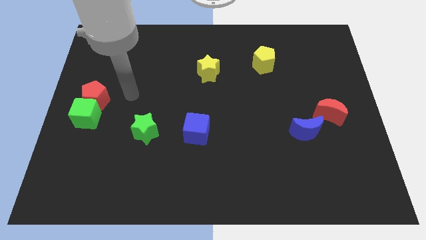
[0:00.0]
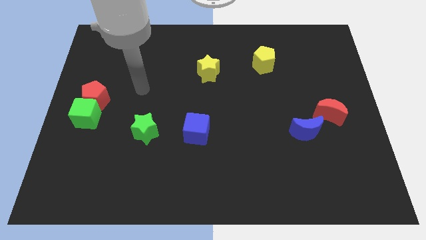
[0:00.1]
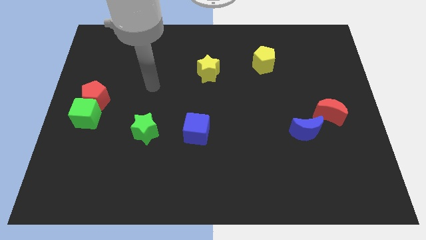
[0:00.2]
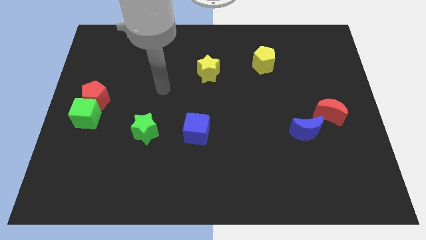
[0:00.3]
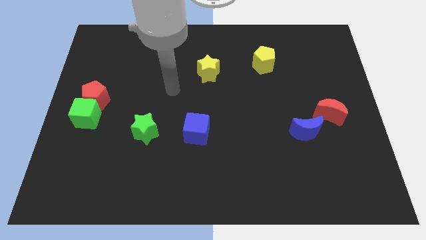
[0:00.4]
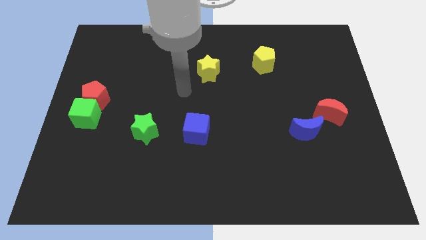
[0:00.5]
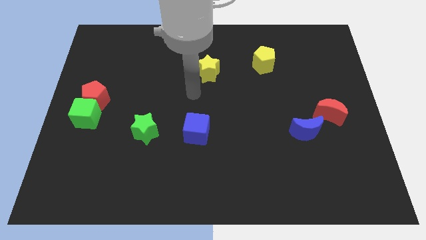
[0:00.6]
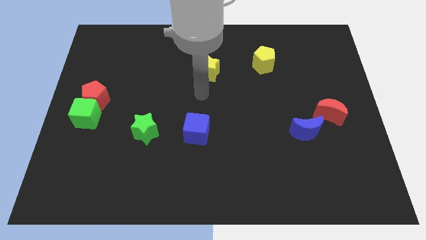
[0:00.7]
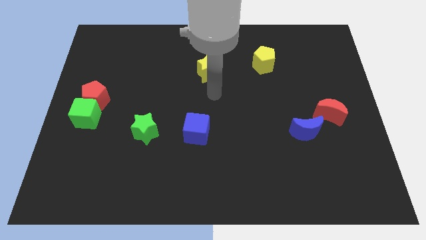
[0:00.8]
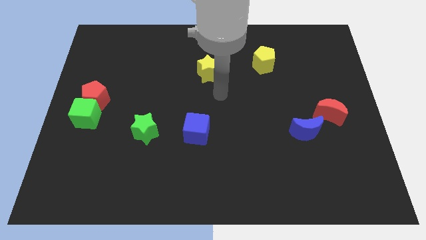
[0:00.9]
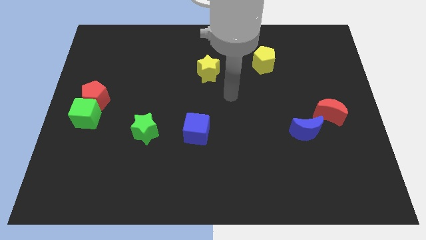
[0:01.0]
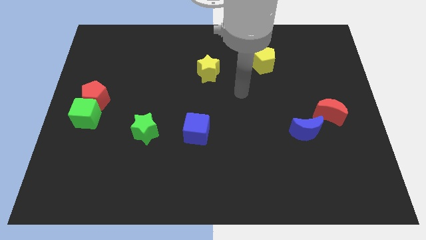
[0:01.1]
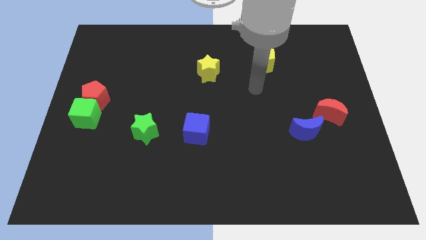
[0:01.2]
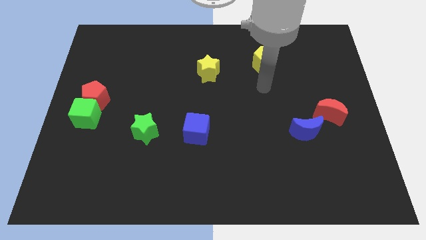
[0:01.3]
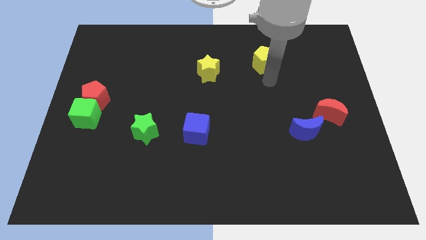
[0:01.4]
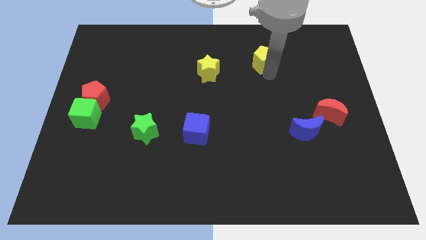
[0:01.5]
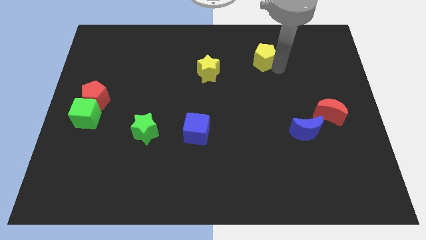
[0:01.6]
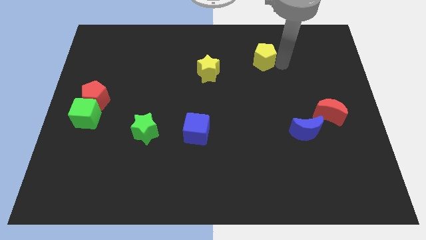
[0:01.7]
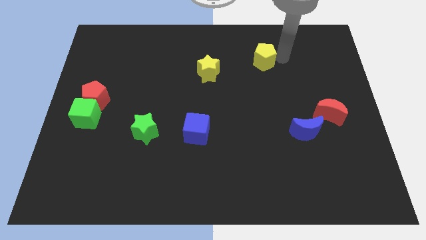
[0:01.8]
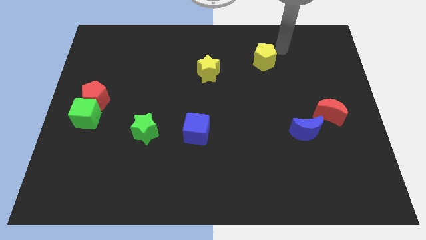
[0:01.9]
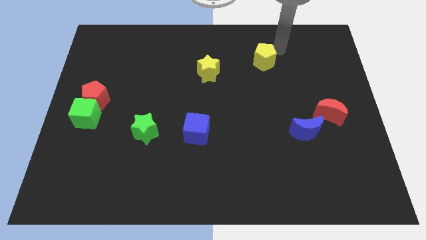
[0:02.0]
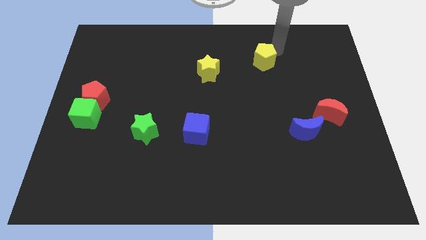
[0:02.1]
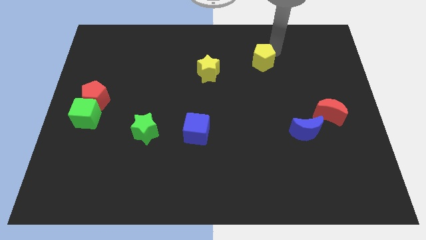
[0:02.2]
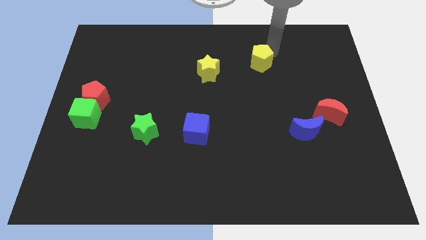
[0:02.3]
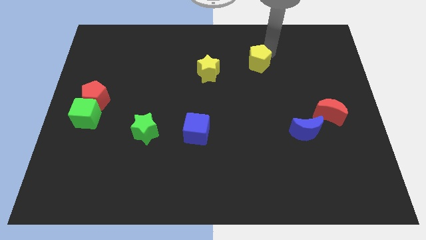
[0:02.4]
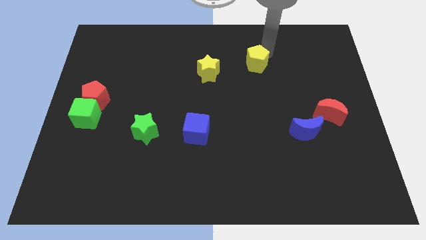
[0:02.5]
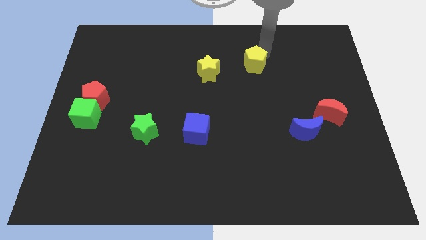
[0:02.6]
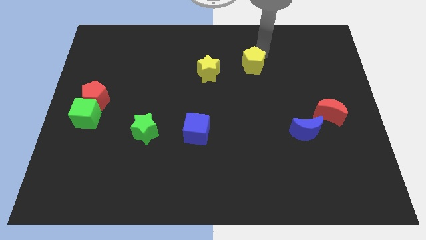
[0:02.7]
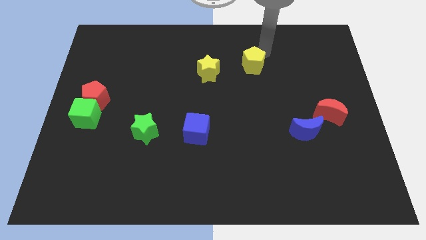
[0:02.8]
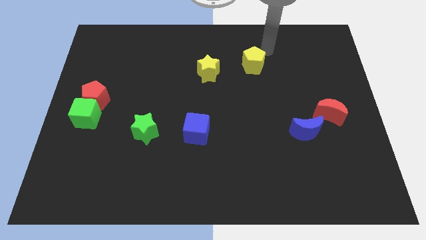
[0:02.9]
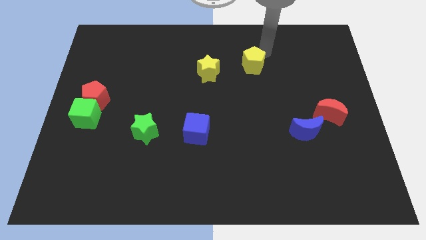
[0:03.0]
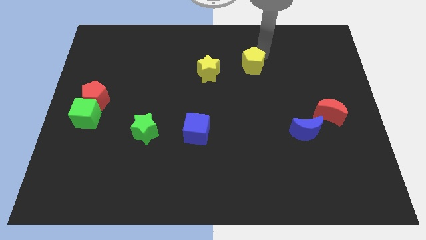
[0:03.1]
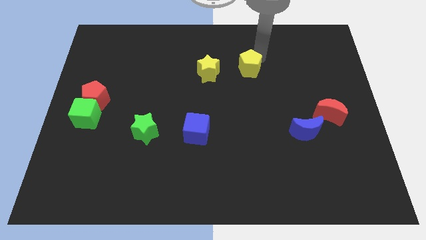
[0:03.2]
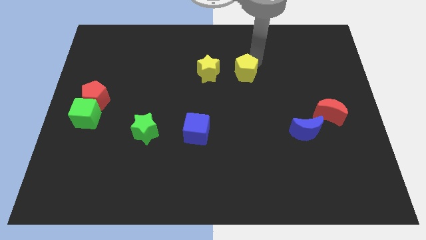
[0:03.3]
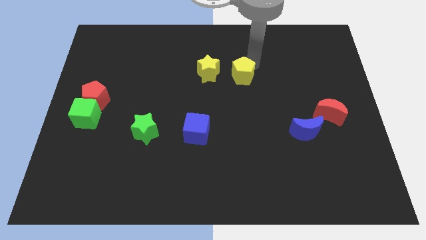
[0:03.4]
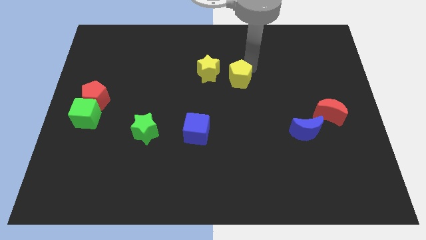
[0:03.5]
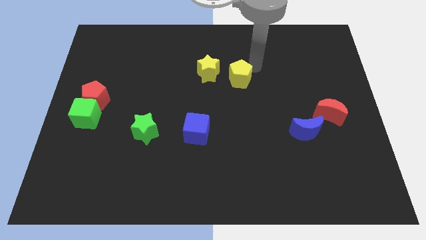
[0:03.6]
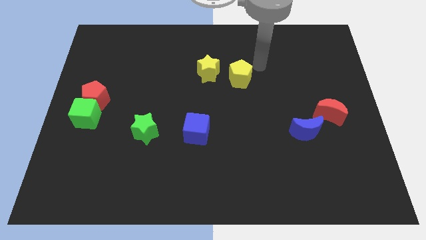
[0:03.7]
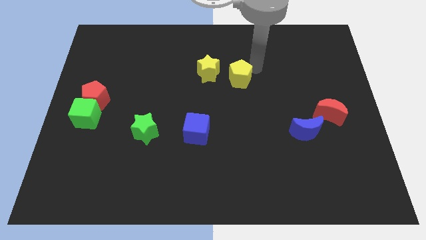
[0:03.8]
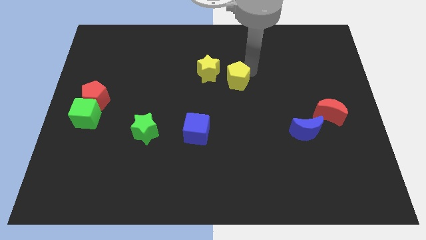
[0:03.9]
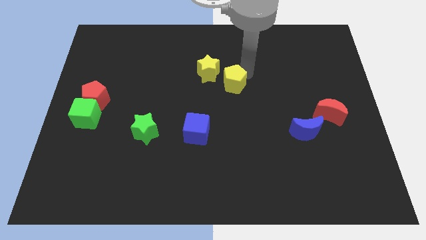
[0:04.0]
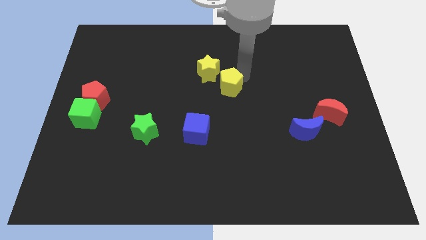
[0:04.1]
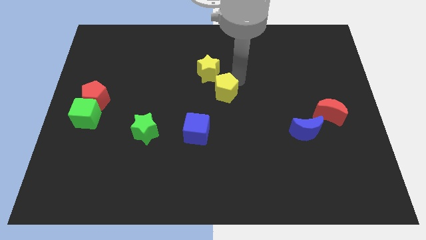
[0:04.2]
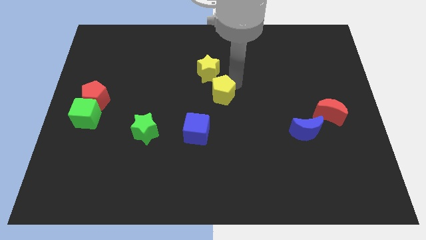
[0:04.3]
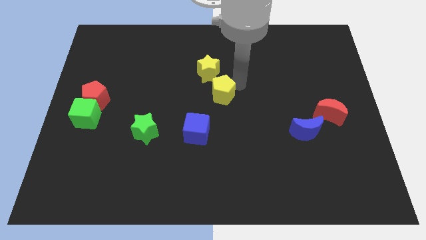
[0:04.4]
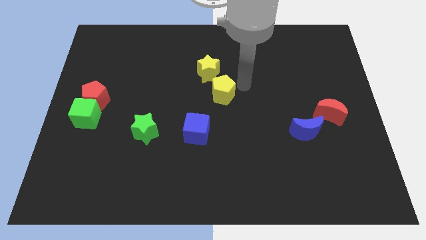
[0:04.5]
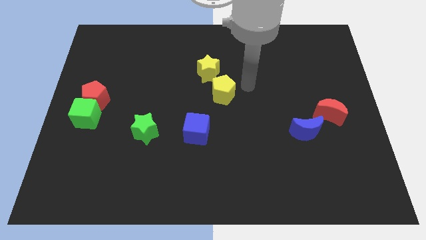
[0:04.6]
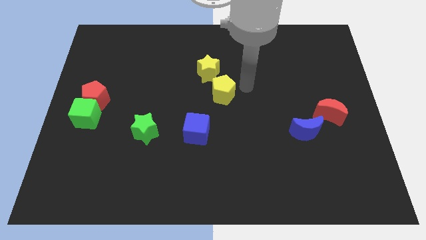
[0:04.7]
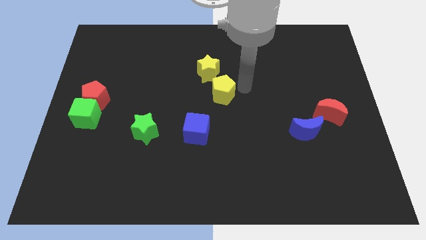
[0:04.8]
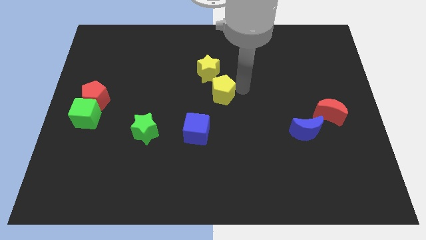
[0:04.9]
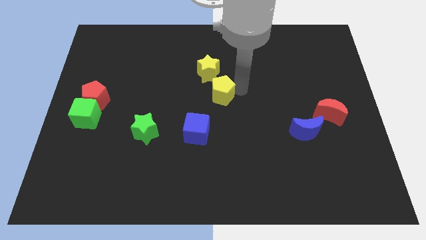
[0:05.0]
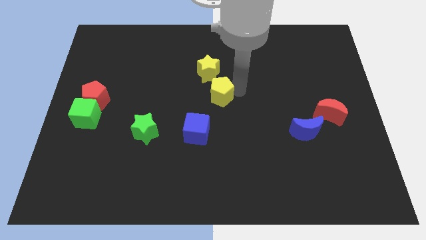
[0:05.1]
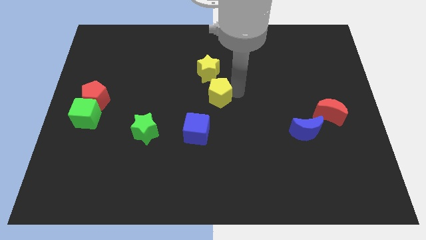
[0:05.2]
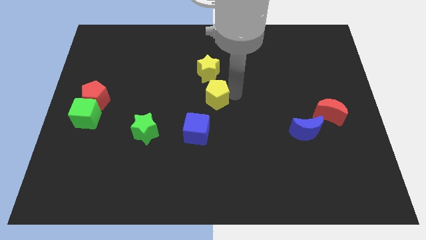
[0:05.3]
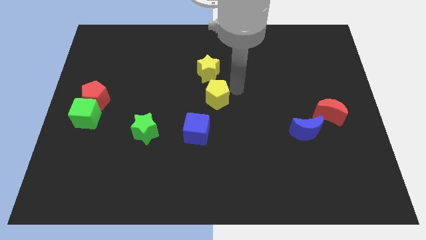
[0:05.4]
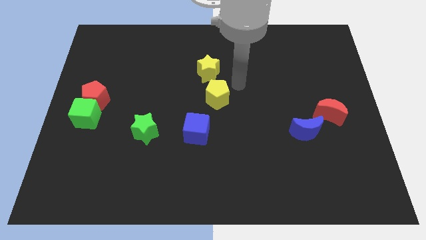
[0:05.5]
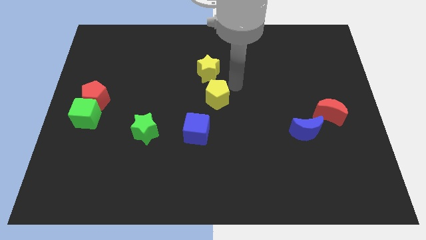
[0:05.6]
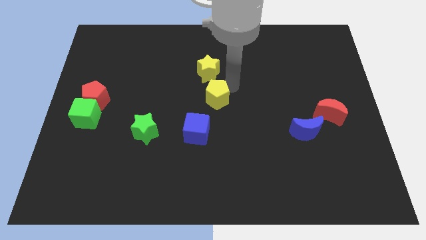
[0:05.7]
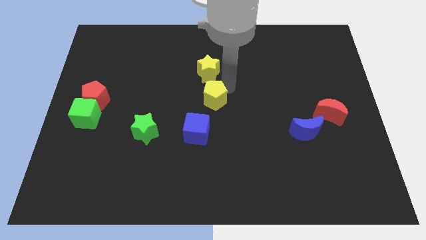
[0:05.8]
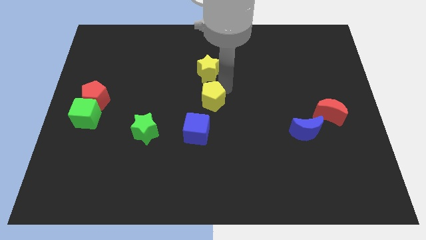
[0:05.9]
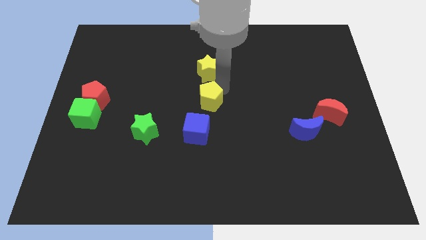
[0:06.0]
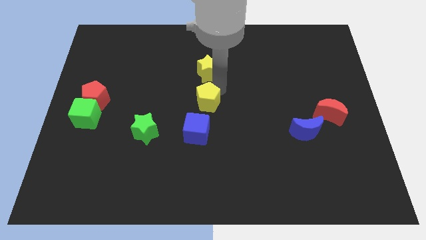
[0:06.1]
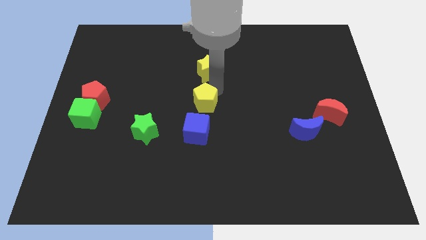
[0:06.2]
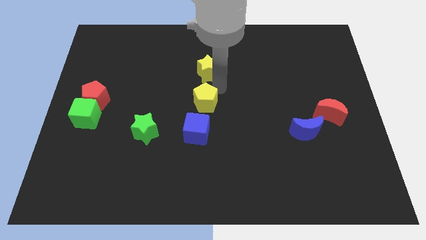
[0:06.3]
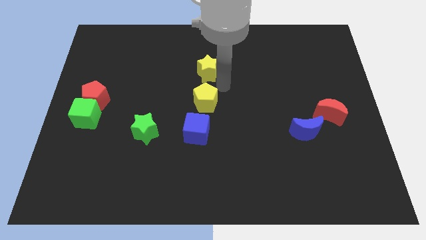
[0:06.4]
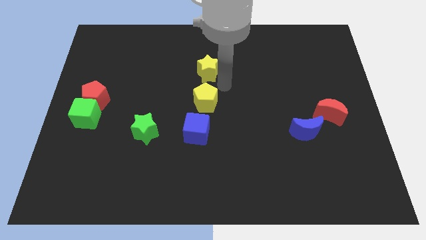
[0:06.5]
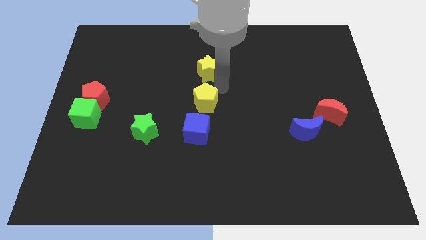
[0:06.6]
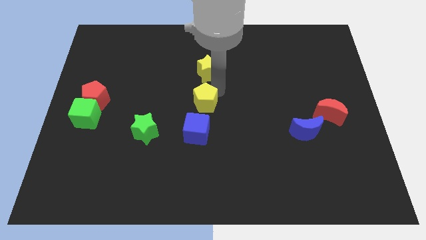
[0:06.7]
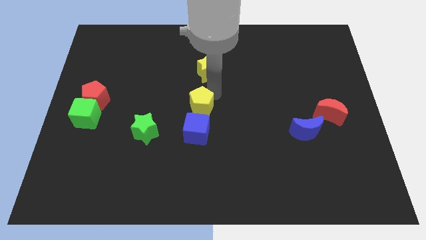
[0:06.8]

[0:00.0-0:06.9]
move the yellow pentagon downwards and to the left

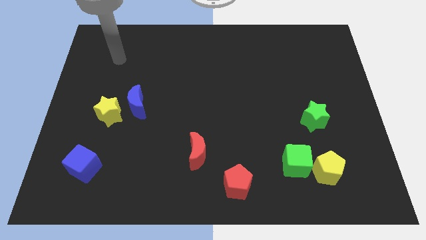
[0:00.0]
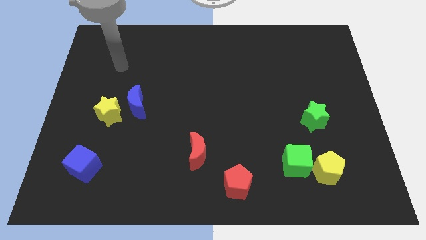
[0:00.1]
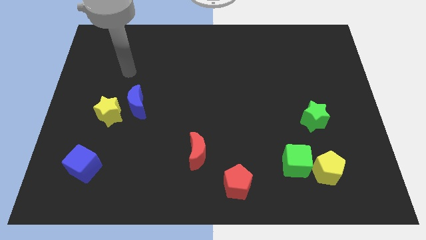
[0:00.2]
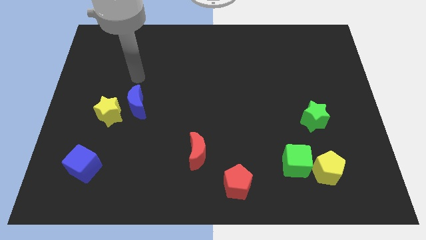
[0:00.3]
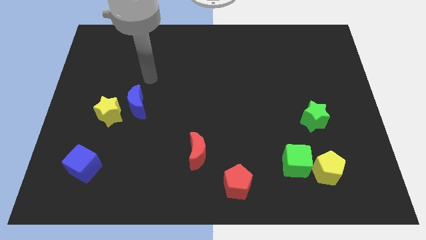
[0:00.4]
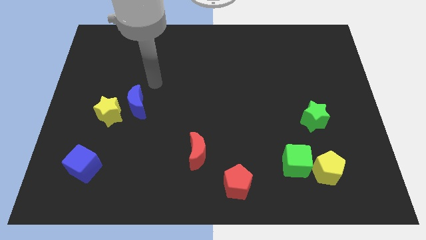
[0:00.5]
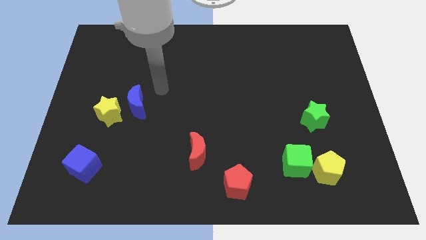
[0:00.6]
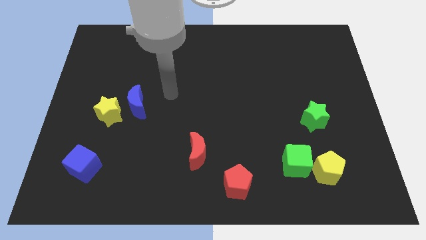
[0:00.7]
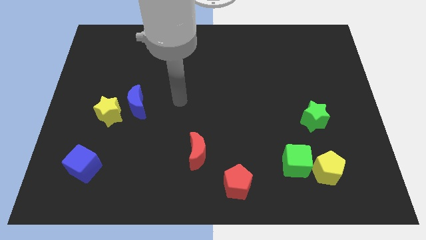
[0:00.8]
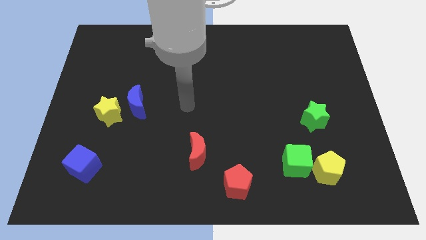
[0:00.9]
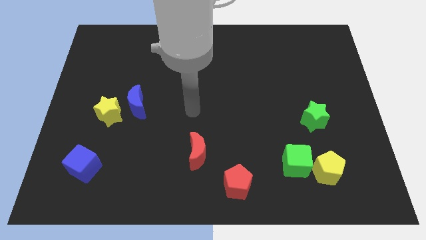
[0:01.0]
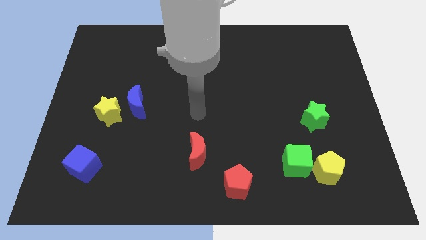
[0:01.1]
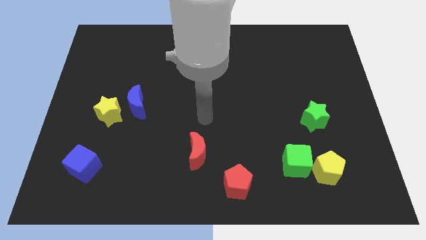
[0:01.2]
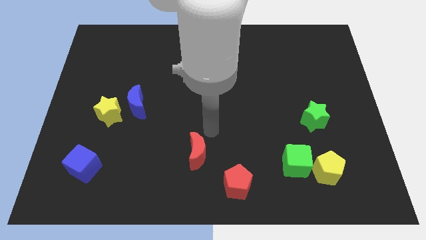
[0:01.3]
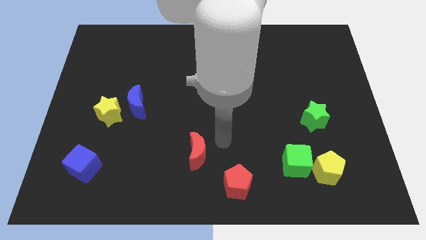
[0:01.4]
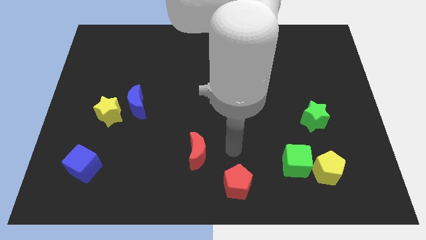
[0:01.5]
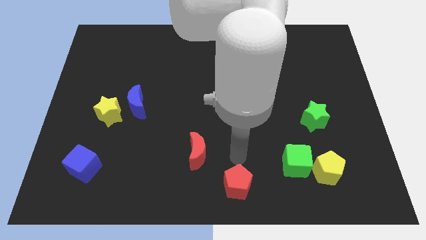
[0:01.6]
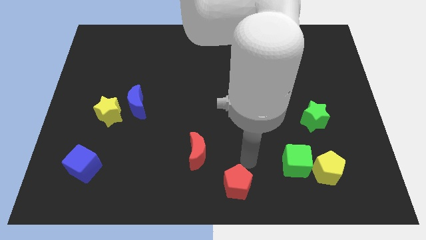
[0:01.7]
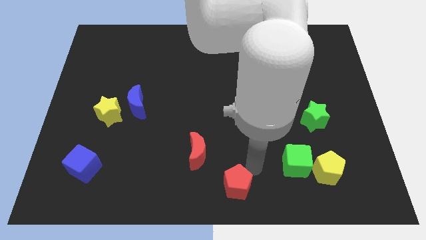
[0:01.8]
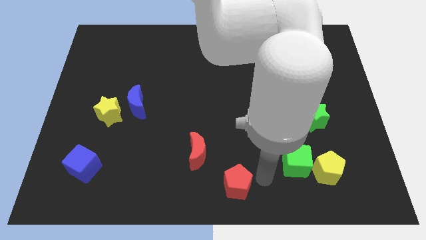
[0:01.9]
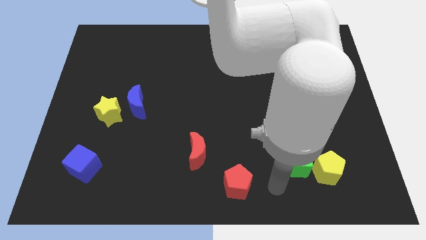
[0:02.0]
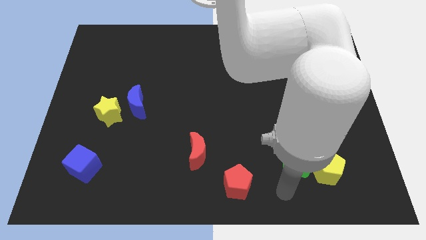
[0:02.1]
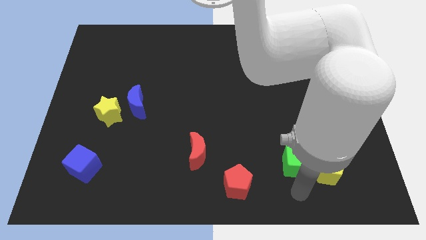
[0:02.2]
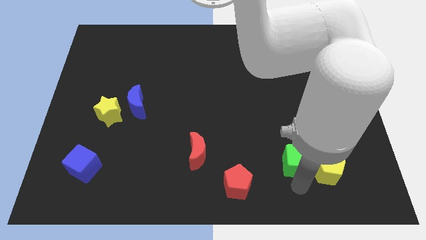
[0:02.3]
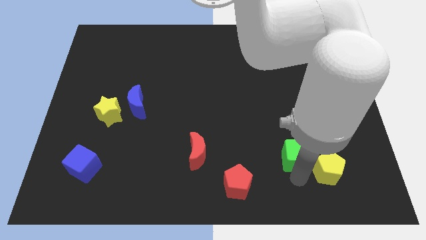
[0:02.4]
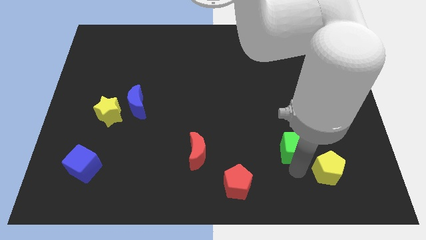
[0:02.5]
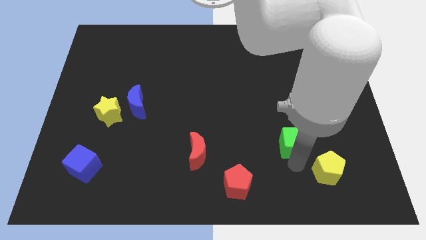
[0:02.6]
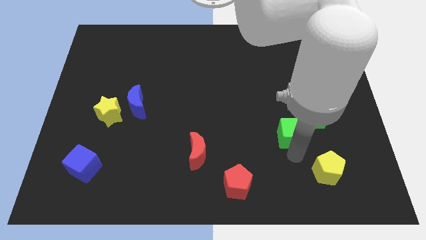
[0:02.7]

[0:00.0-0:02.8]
slightly slide the green cube upwards
